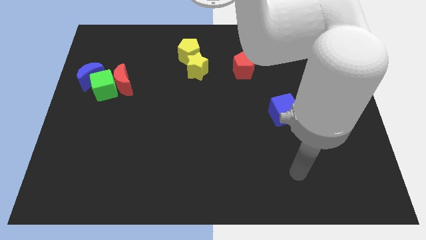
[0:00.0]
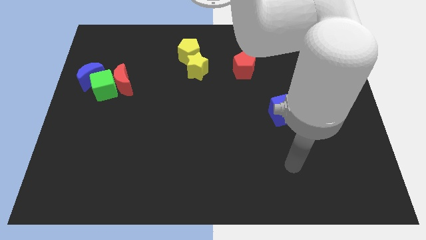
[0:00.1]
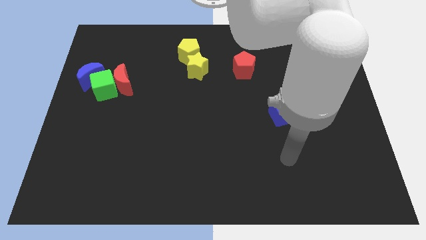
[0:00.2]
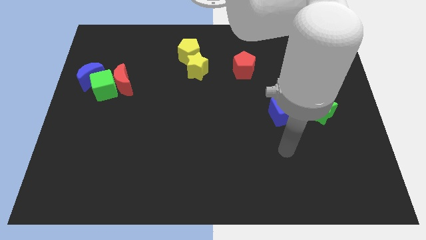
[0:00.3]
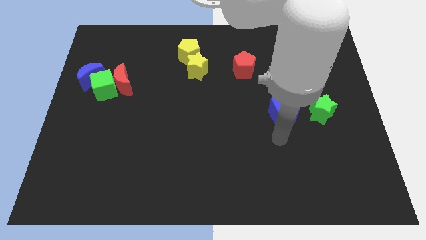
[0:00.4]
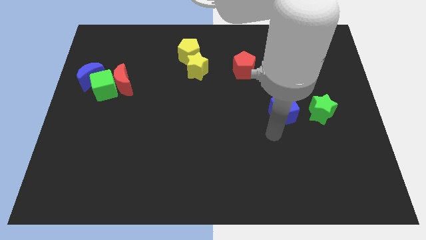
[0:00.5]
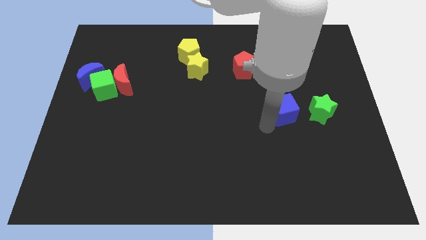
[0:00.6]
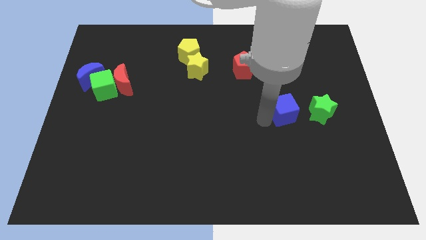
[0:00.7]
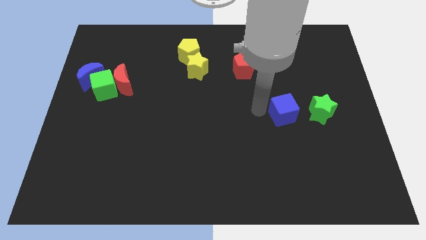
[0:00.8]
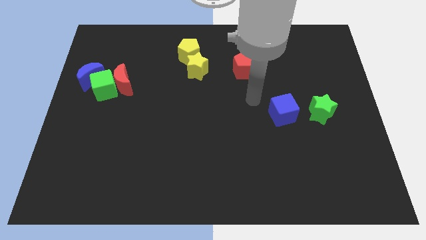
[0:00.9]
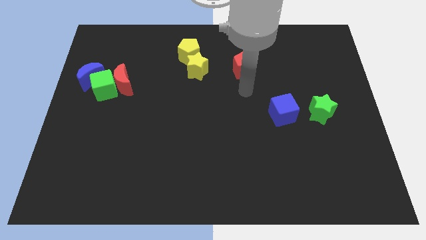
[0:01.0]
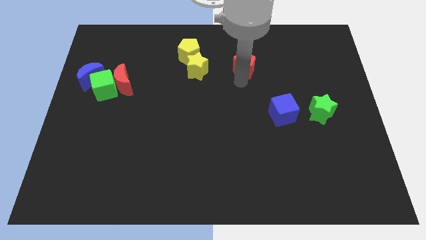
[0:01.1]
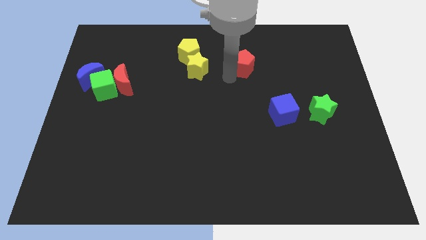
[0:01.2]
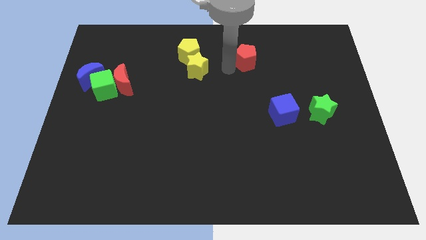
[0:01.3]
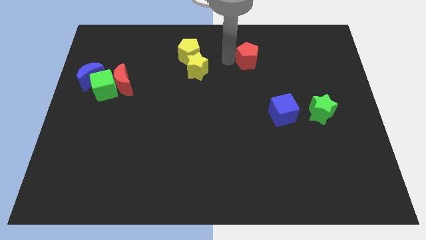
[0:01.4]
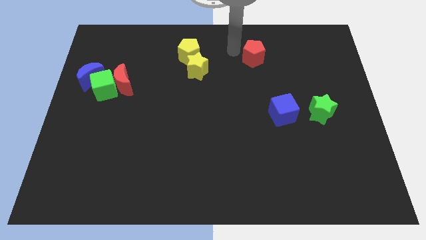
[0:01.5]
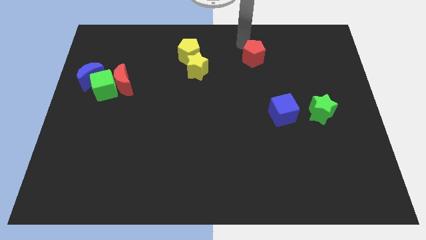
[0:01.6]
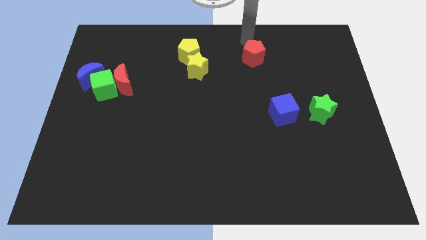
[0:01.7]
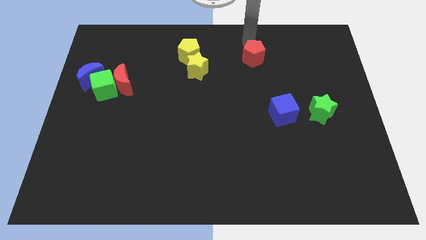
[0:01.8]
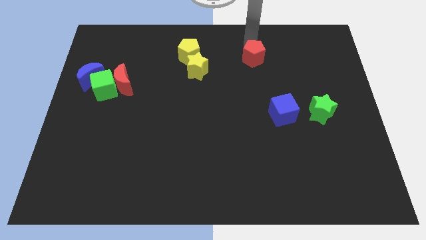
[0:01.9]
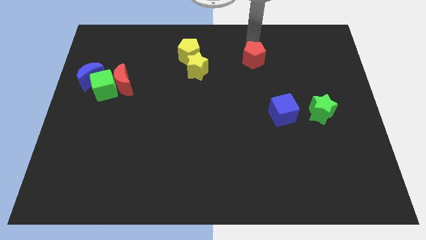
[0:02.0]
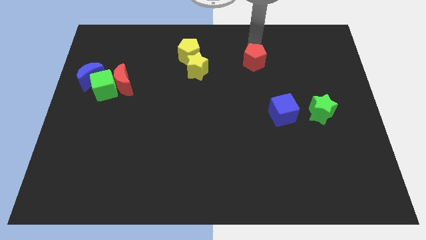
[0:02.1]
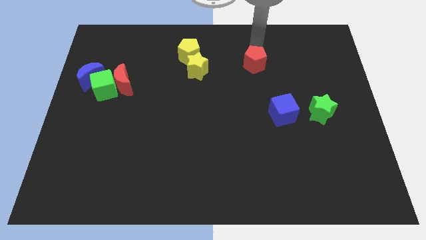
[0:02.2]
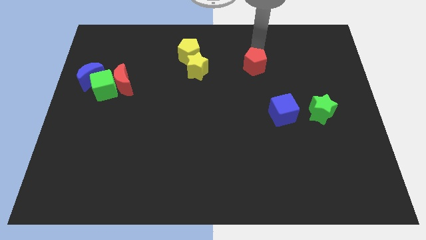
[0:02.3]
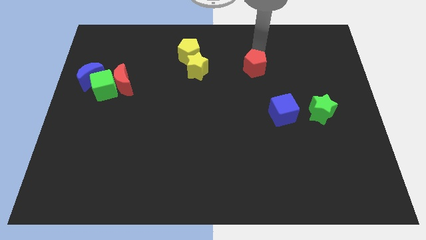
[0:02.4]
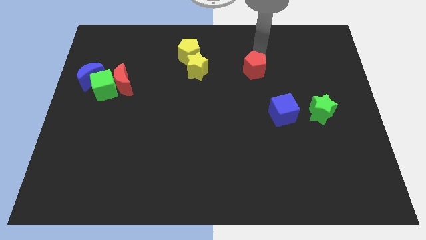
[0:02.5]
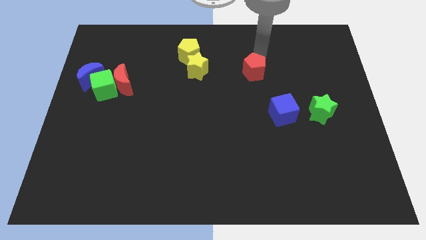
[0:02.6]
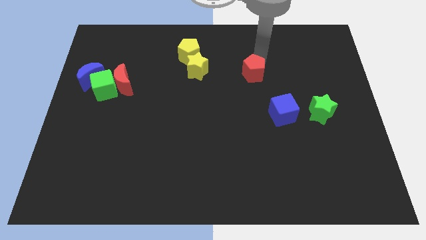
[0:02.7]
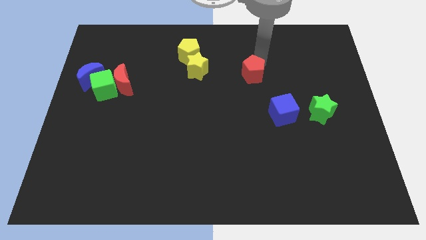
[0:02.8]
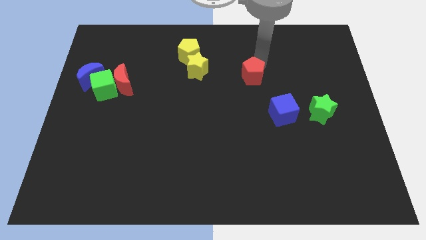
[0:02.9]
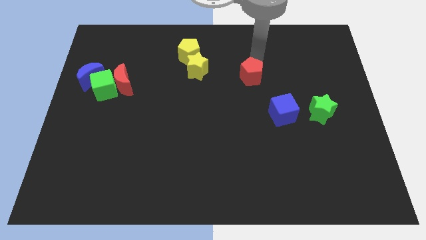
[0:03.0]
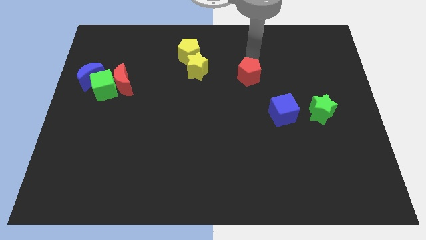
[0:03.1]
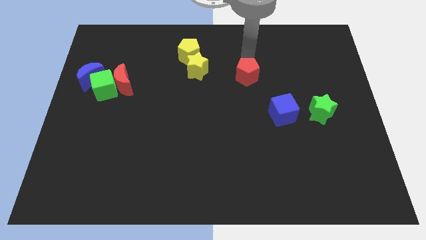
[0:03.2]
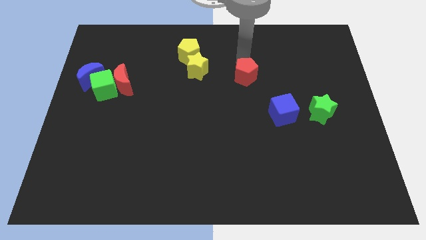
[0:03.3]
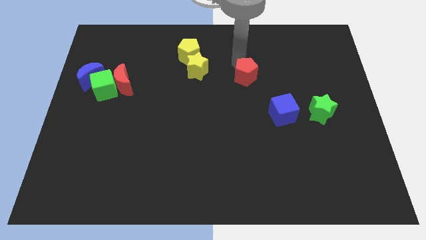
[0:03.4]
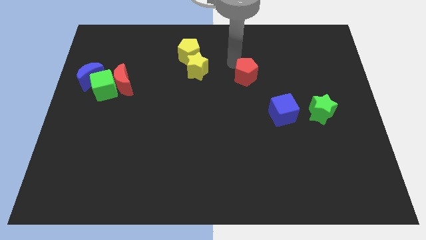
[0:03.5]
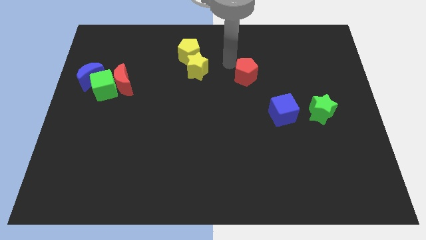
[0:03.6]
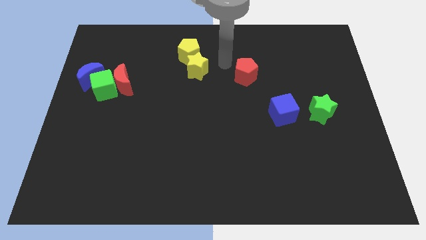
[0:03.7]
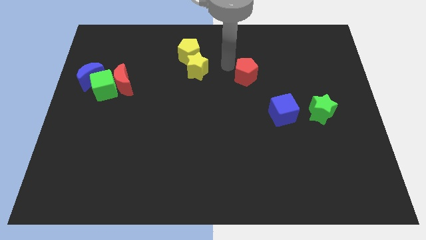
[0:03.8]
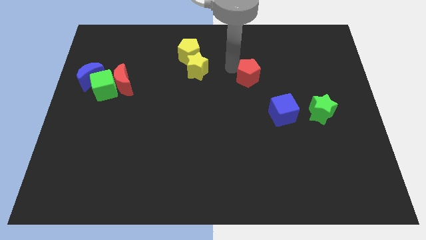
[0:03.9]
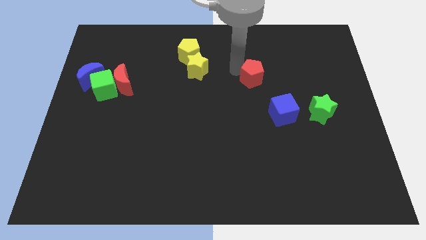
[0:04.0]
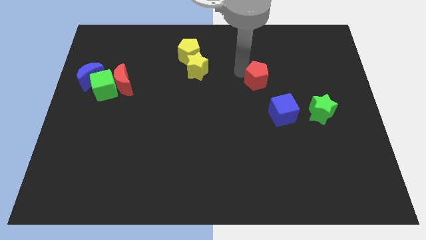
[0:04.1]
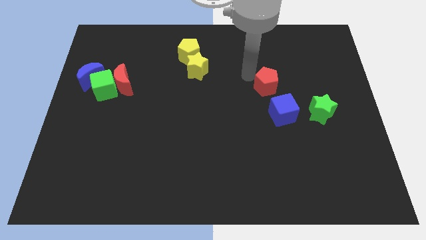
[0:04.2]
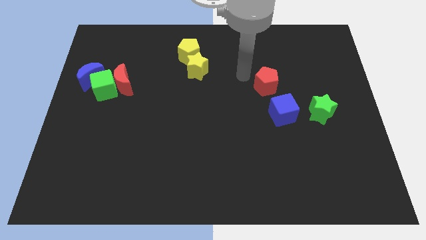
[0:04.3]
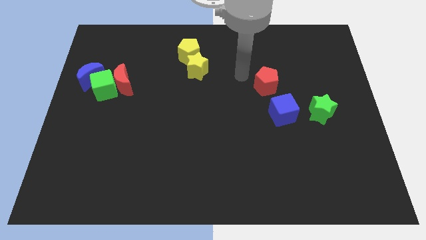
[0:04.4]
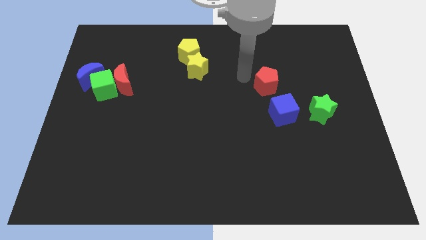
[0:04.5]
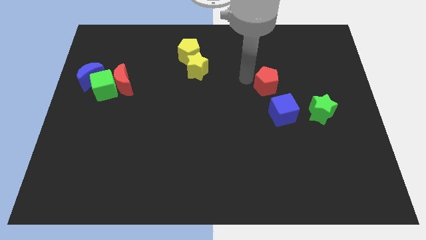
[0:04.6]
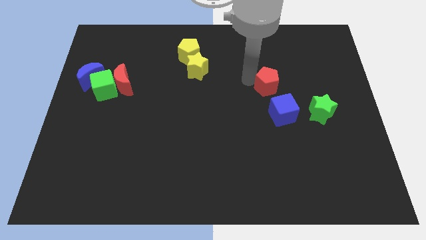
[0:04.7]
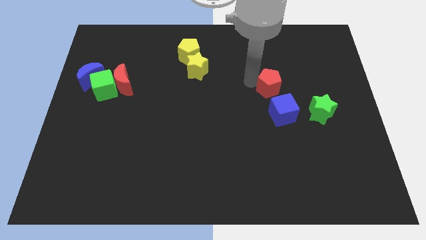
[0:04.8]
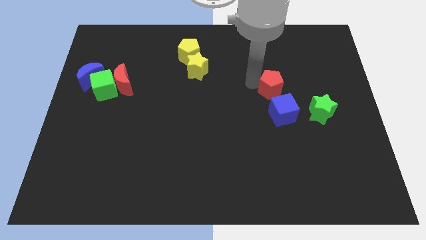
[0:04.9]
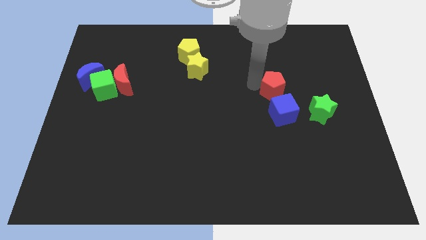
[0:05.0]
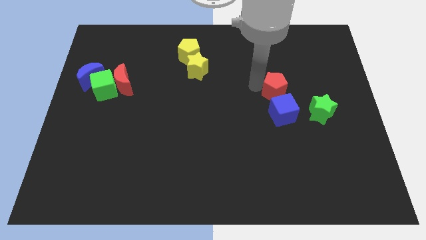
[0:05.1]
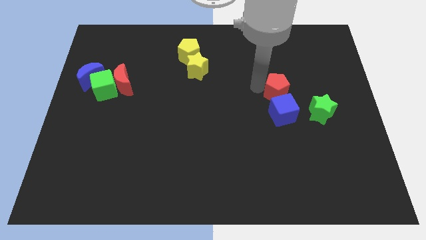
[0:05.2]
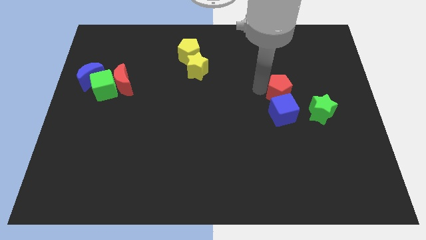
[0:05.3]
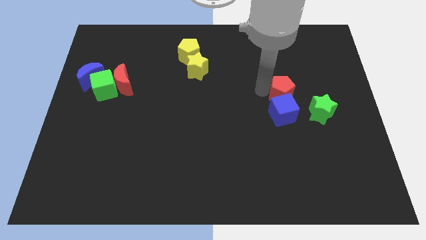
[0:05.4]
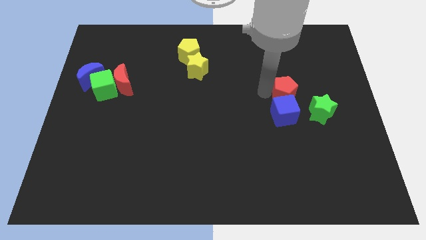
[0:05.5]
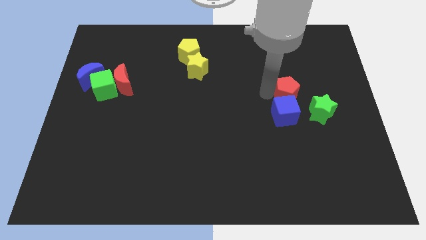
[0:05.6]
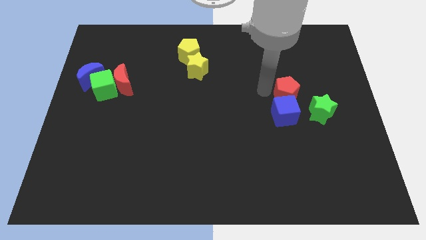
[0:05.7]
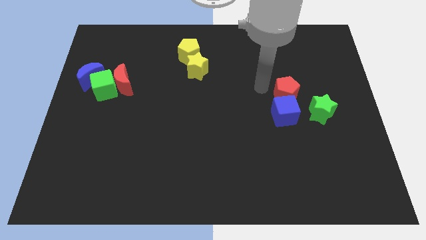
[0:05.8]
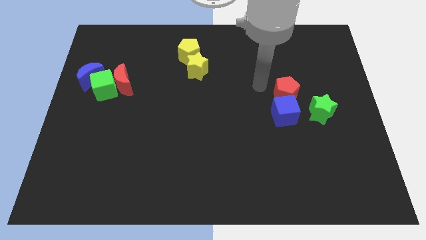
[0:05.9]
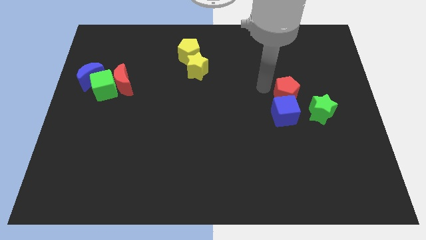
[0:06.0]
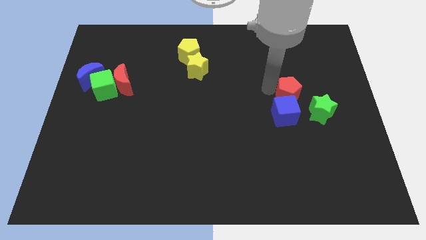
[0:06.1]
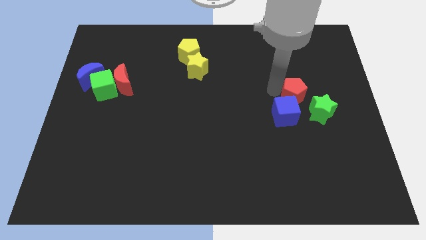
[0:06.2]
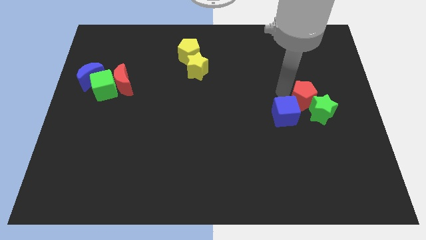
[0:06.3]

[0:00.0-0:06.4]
push the red pentagon close to the green star
